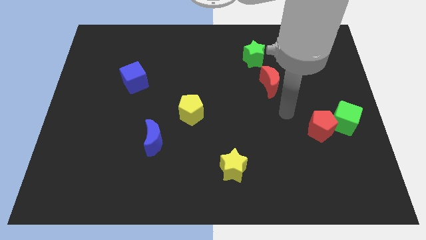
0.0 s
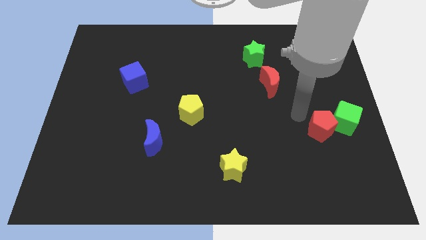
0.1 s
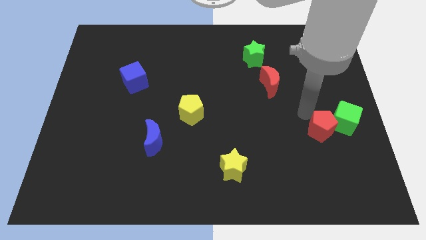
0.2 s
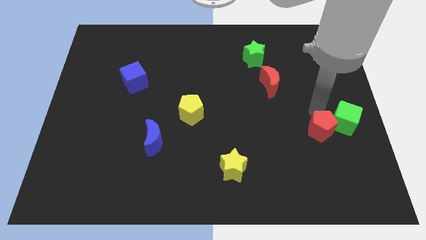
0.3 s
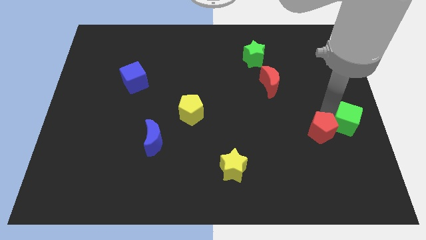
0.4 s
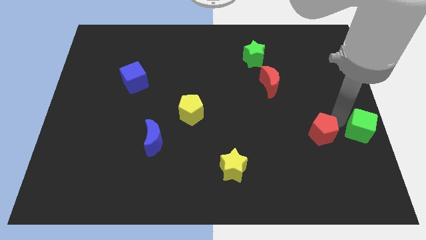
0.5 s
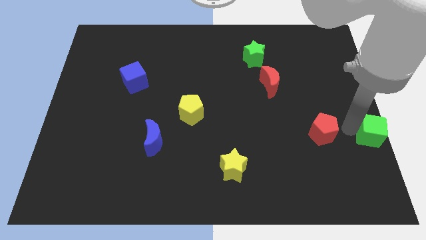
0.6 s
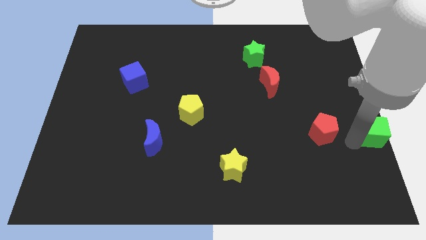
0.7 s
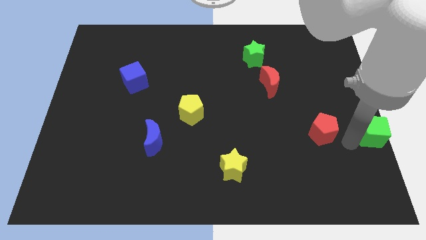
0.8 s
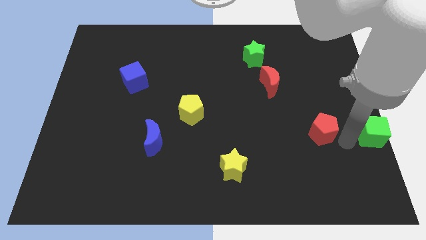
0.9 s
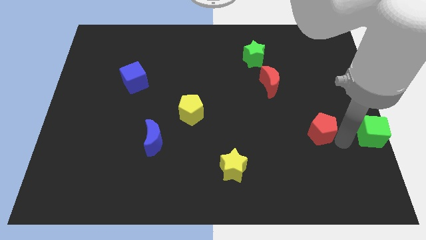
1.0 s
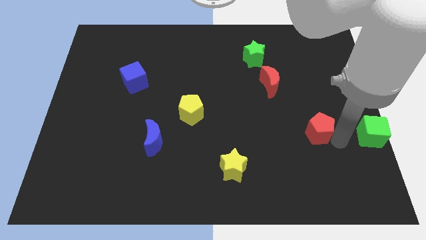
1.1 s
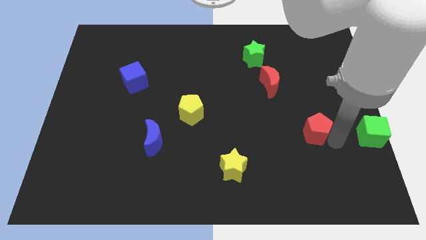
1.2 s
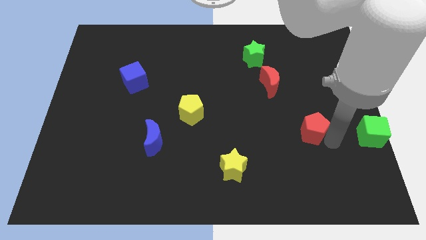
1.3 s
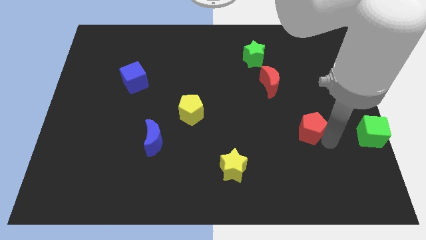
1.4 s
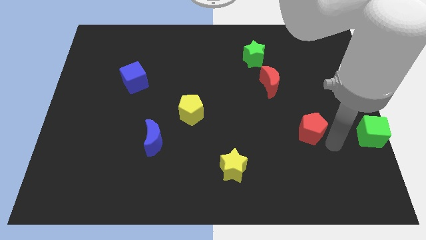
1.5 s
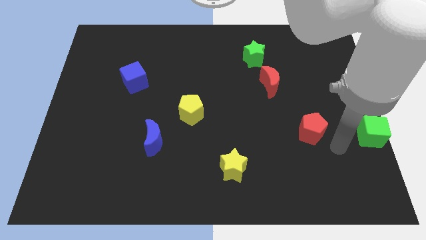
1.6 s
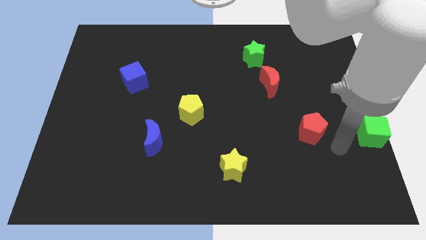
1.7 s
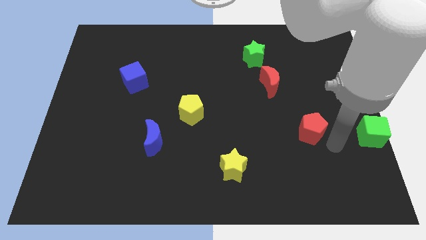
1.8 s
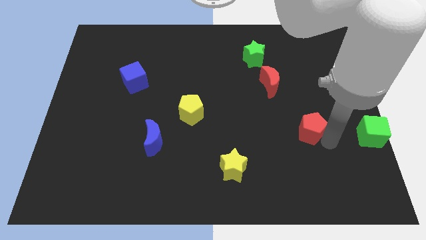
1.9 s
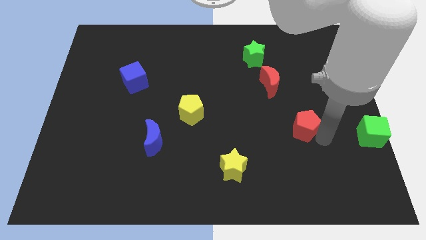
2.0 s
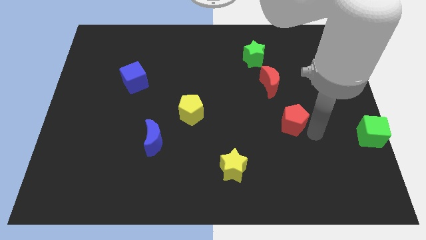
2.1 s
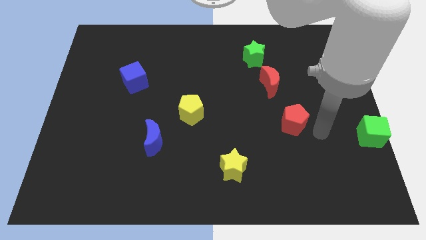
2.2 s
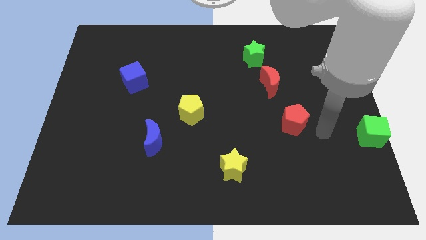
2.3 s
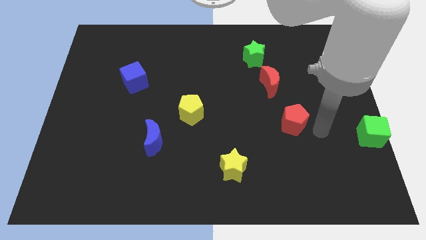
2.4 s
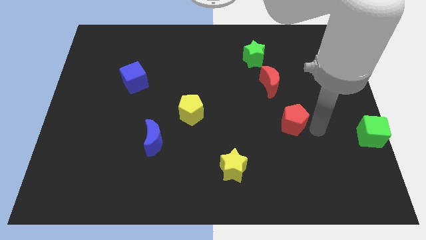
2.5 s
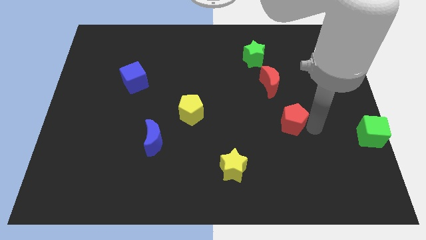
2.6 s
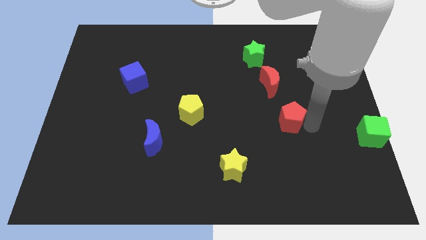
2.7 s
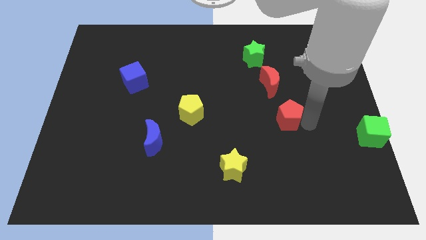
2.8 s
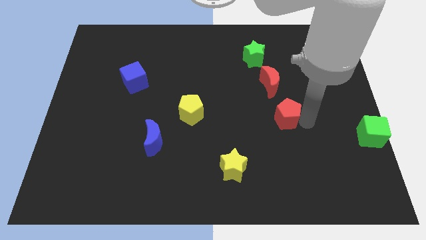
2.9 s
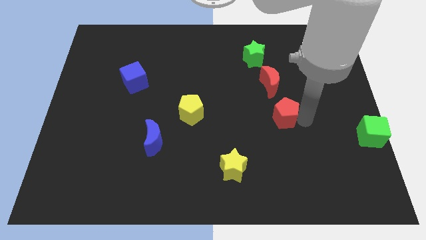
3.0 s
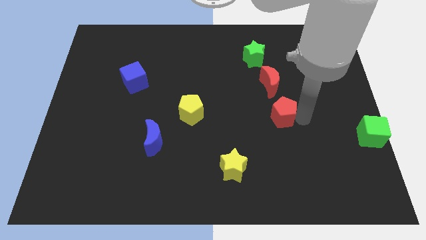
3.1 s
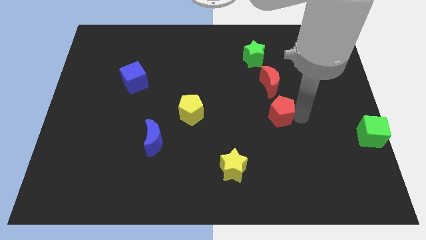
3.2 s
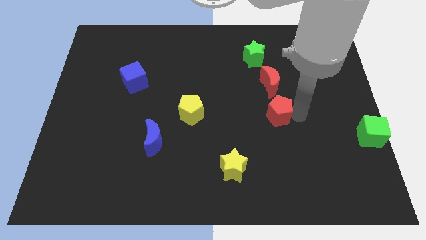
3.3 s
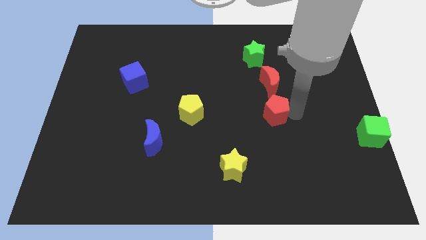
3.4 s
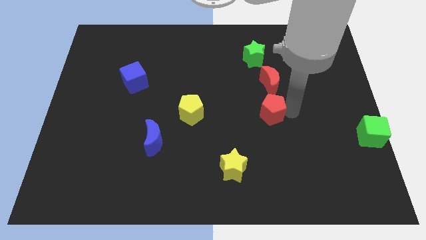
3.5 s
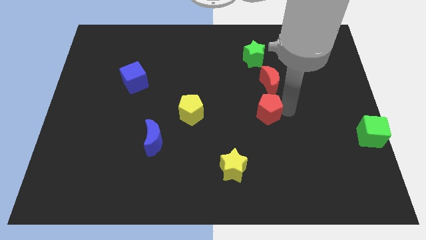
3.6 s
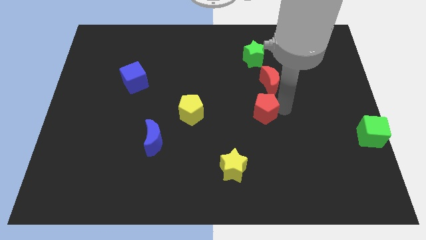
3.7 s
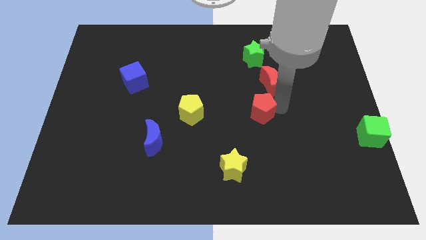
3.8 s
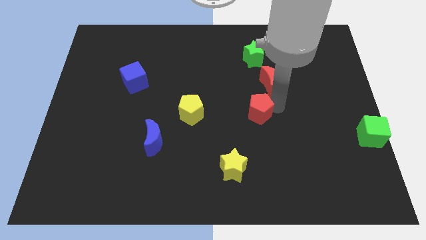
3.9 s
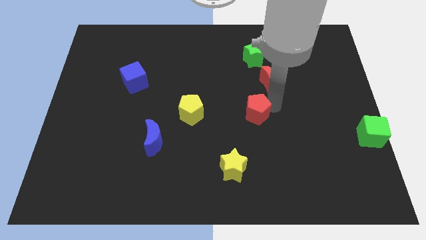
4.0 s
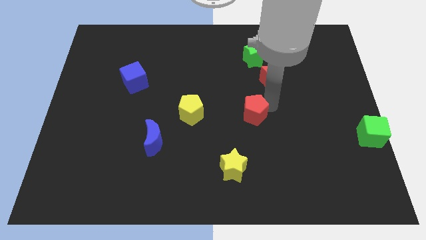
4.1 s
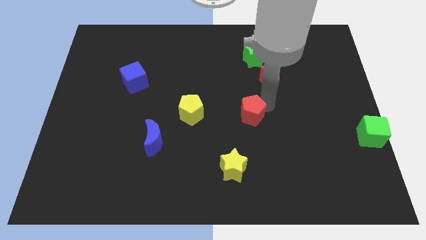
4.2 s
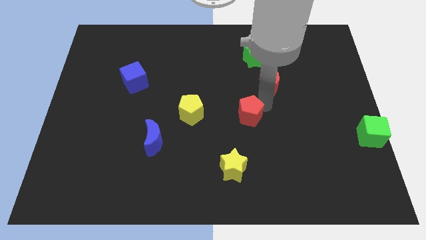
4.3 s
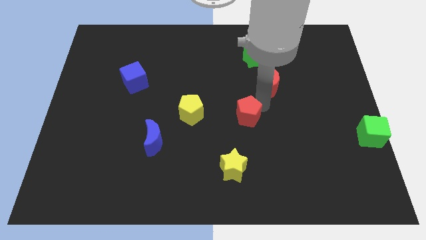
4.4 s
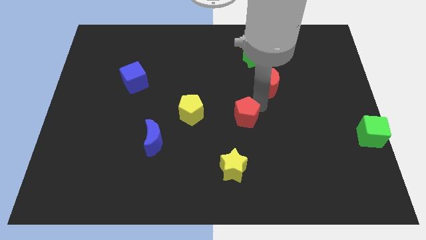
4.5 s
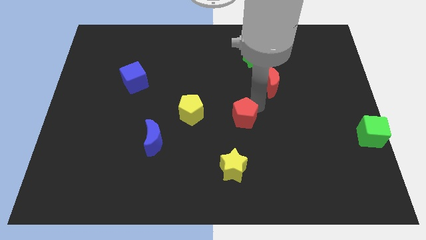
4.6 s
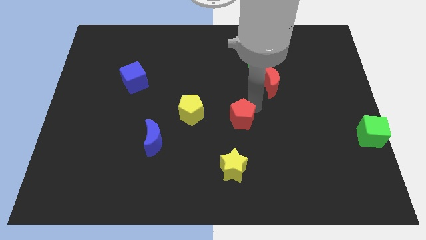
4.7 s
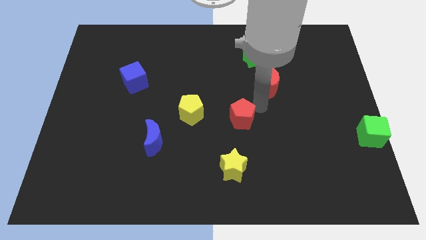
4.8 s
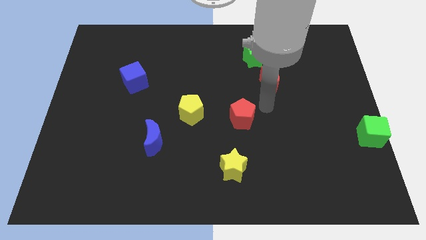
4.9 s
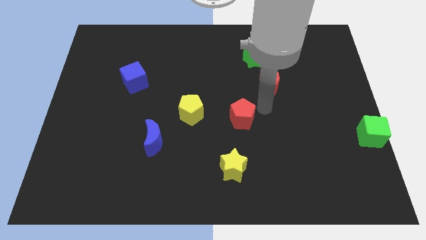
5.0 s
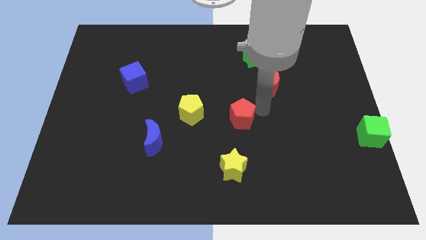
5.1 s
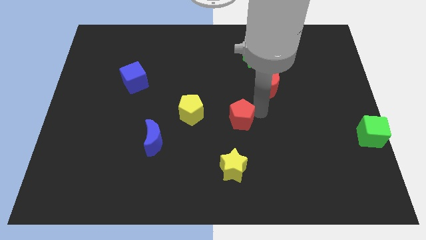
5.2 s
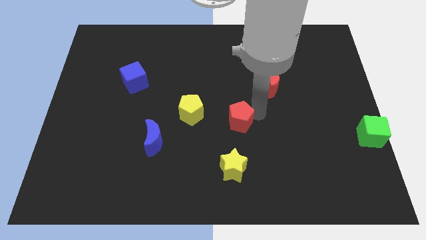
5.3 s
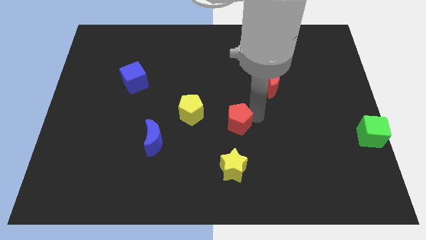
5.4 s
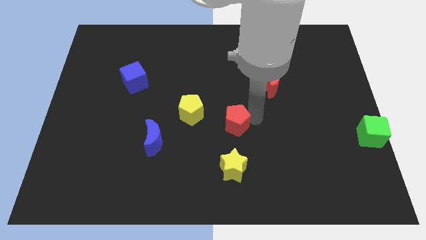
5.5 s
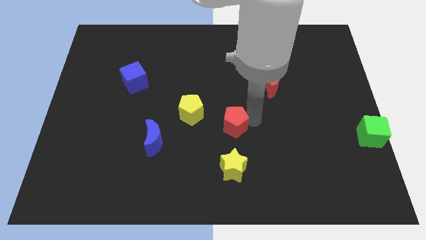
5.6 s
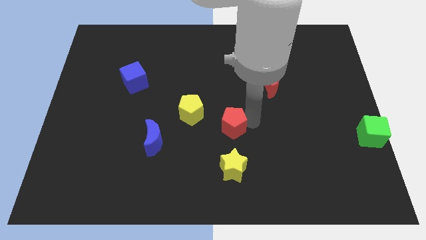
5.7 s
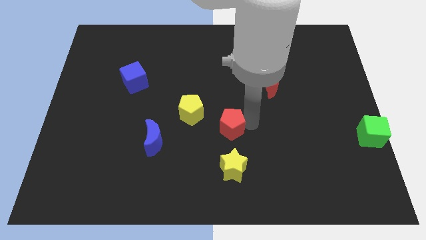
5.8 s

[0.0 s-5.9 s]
slide the red pentagon to the left

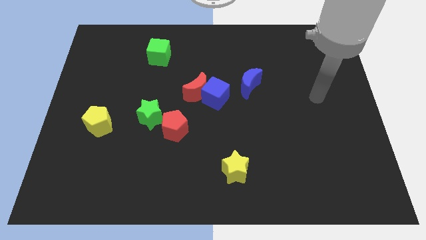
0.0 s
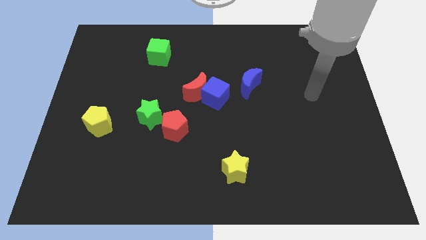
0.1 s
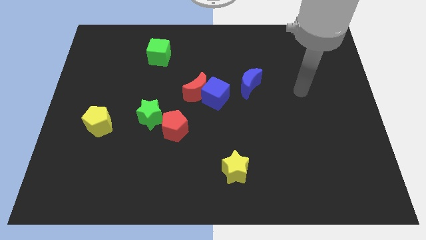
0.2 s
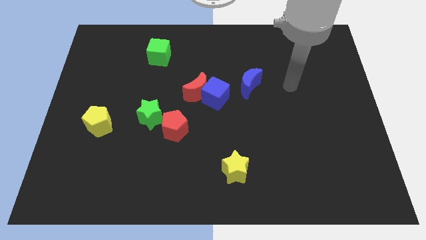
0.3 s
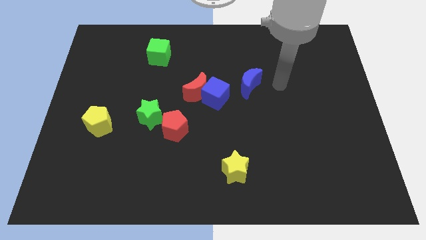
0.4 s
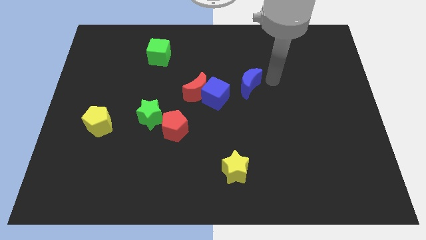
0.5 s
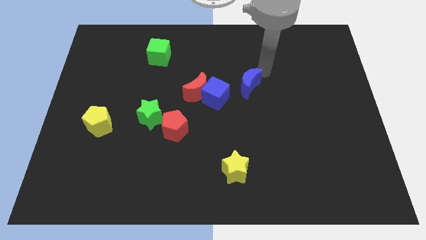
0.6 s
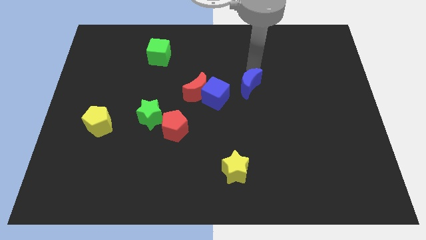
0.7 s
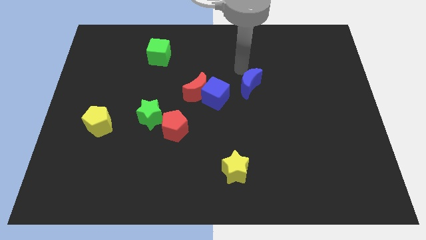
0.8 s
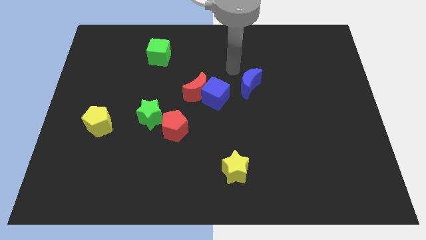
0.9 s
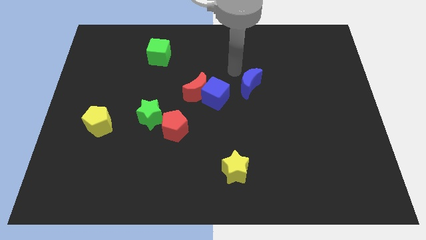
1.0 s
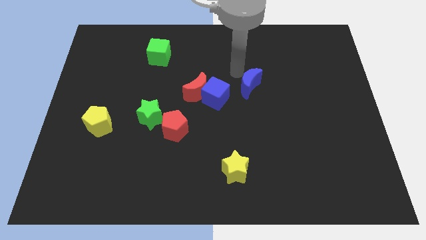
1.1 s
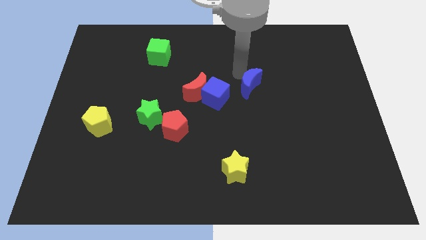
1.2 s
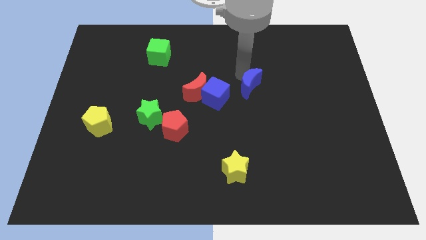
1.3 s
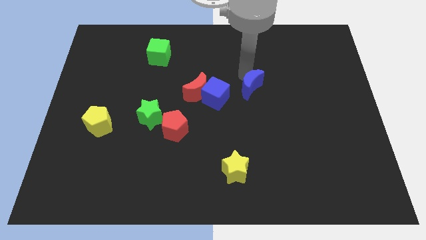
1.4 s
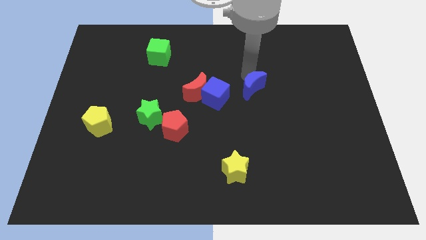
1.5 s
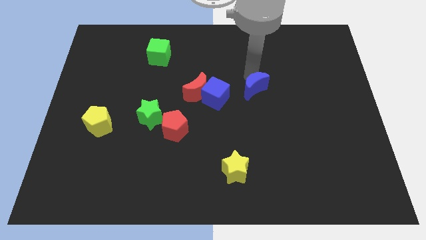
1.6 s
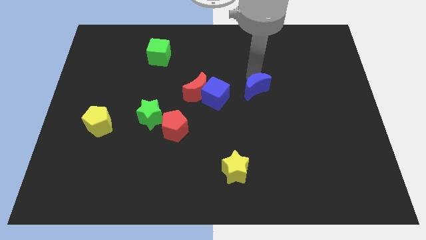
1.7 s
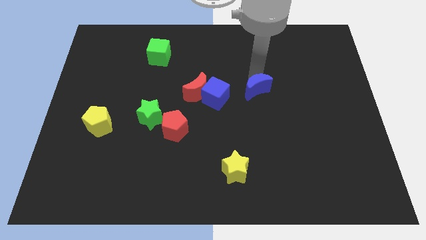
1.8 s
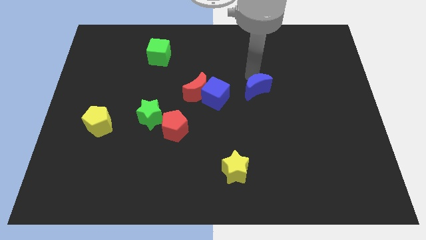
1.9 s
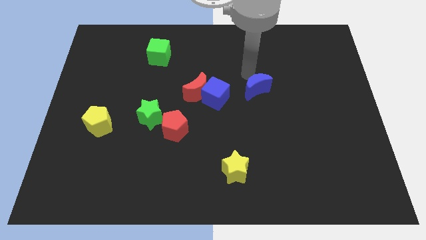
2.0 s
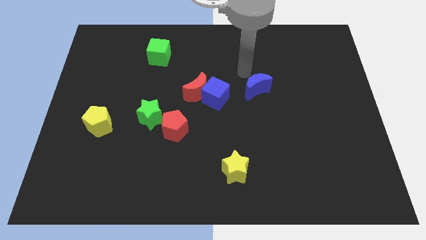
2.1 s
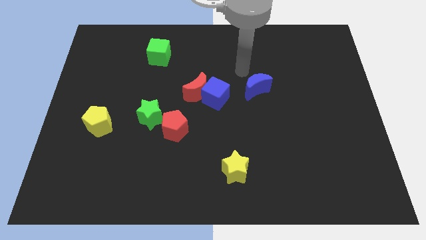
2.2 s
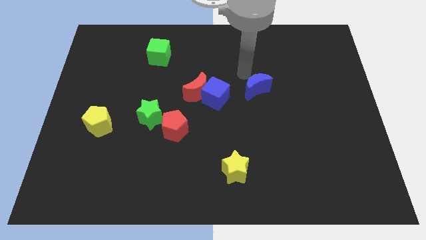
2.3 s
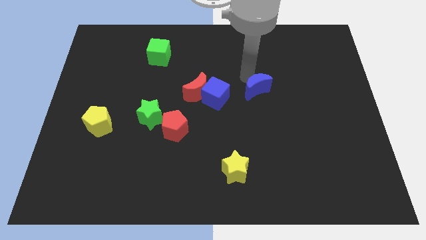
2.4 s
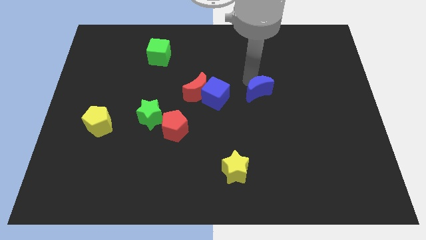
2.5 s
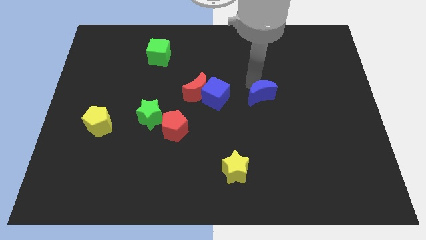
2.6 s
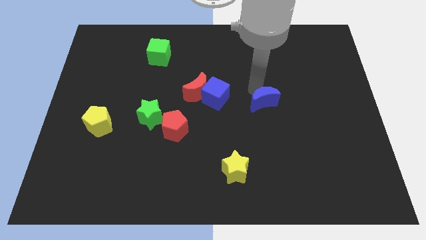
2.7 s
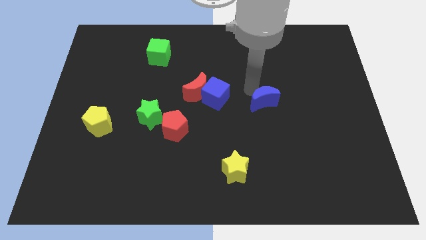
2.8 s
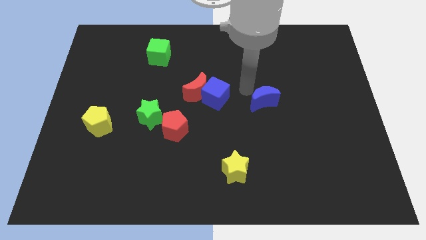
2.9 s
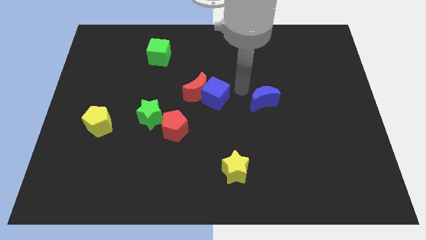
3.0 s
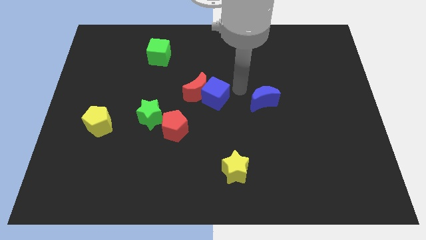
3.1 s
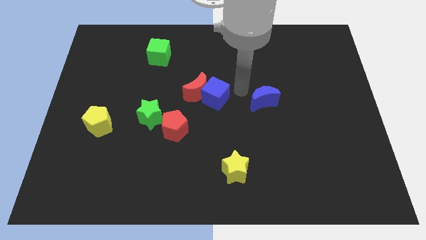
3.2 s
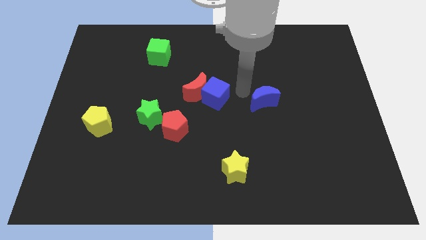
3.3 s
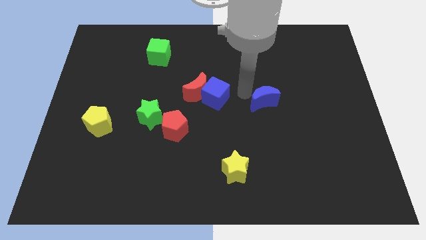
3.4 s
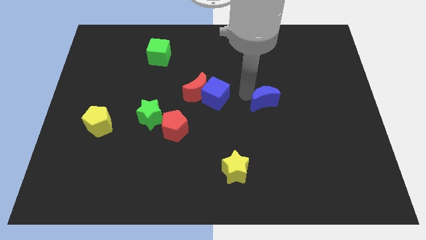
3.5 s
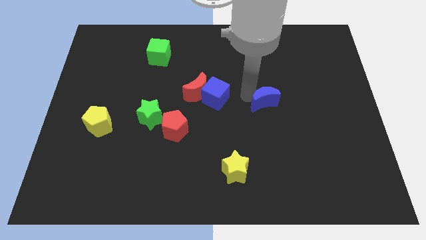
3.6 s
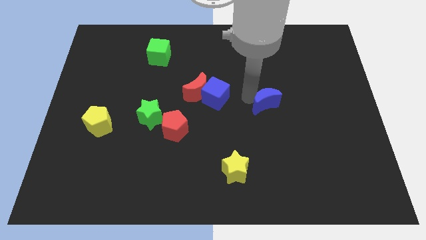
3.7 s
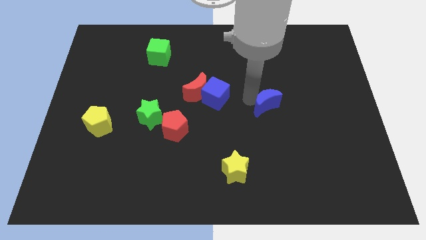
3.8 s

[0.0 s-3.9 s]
push the blue moon down and right diagonally somewhat
